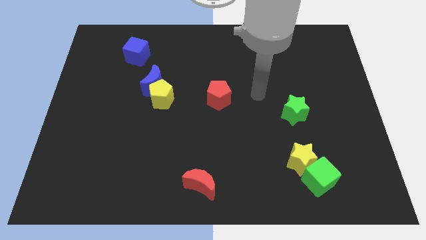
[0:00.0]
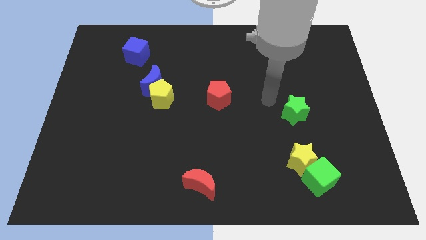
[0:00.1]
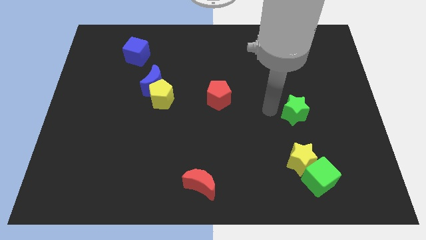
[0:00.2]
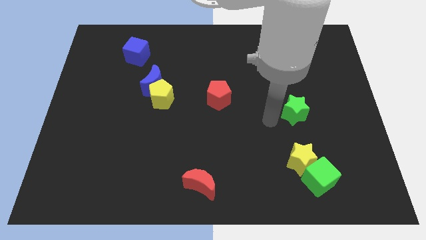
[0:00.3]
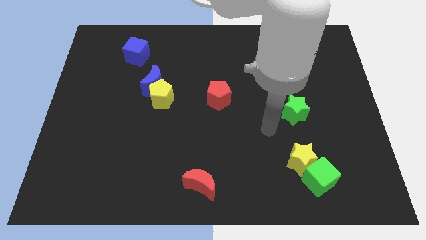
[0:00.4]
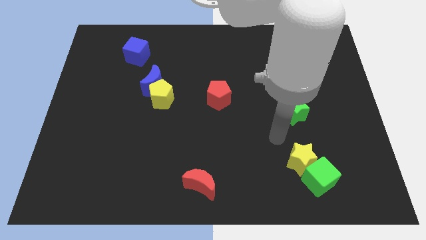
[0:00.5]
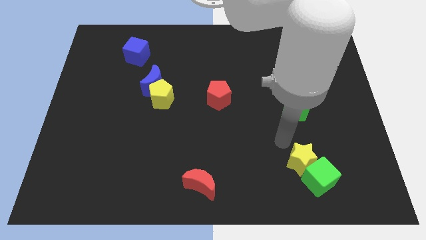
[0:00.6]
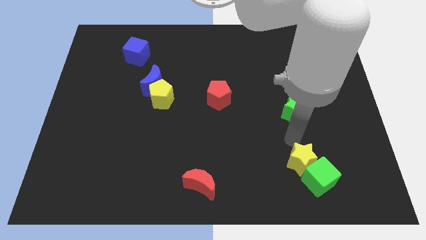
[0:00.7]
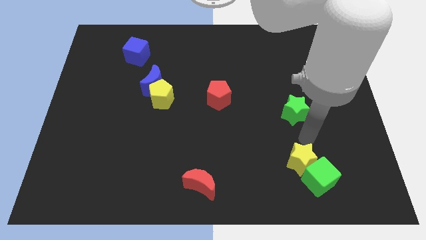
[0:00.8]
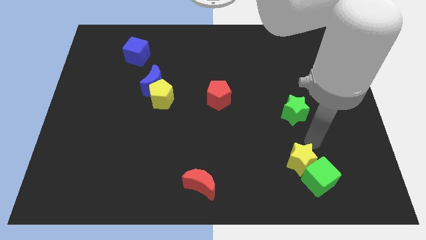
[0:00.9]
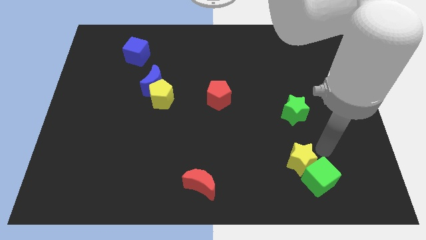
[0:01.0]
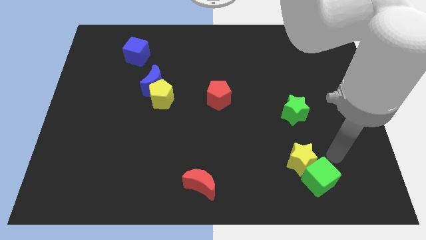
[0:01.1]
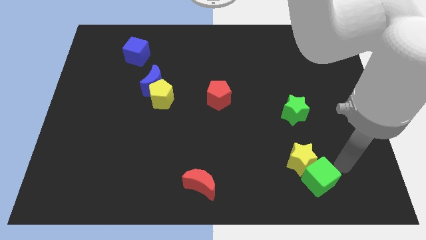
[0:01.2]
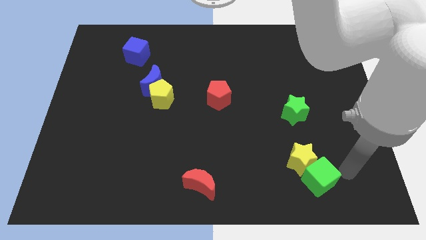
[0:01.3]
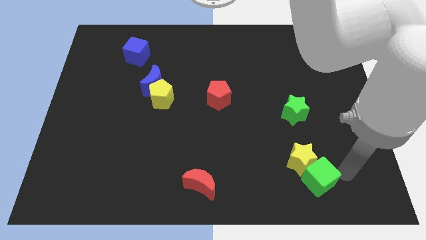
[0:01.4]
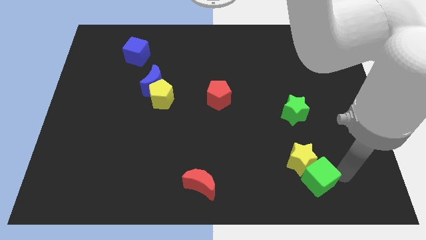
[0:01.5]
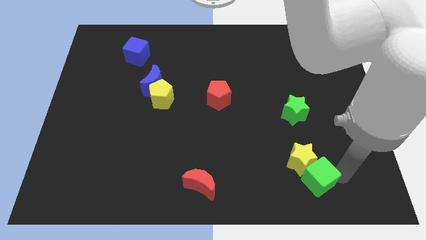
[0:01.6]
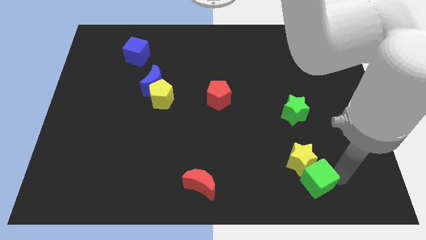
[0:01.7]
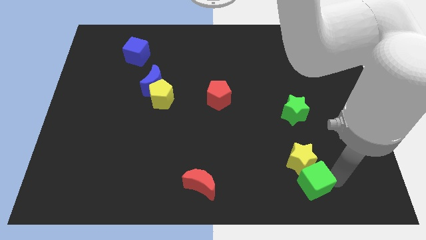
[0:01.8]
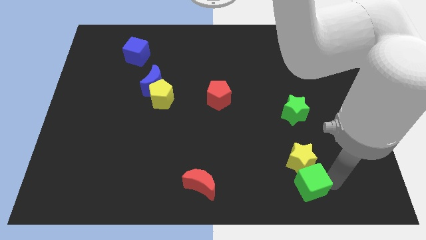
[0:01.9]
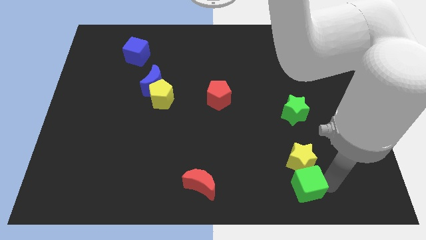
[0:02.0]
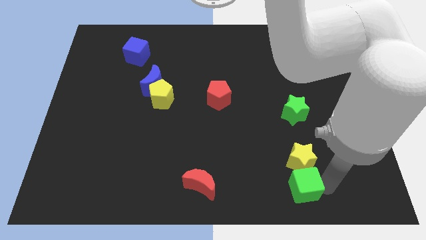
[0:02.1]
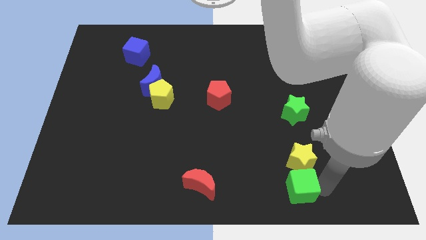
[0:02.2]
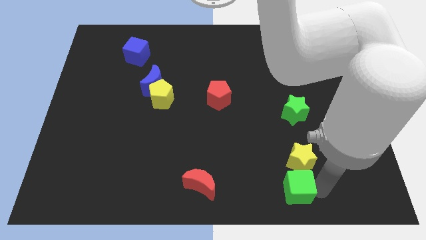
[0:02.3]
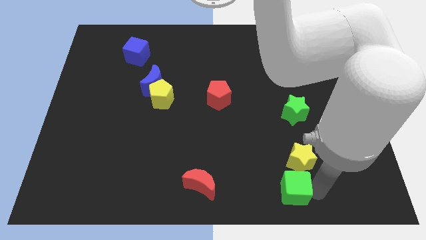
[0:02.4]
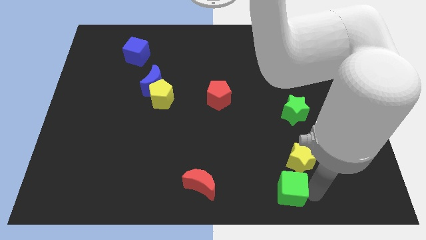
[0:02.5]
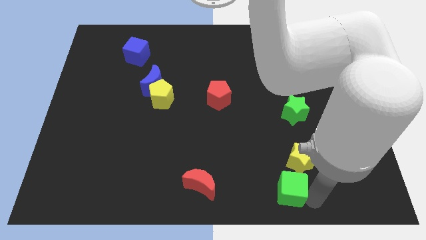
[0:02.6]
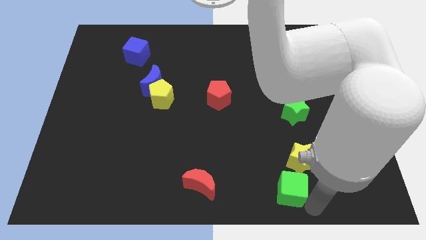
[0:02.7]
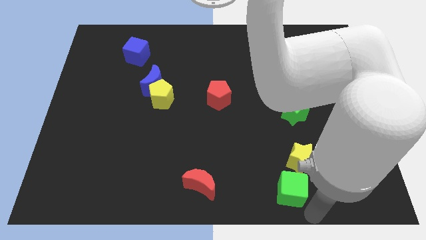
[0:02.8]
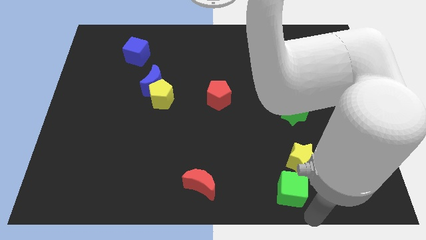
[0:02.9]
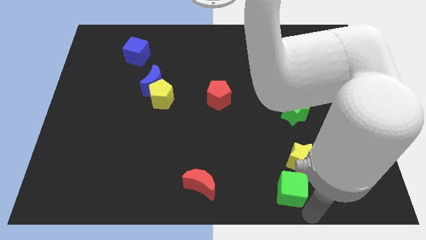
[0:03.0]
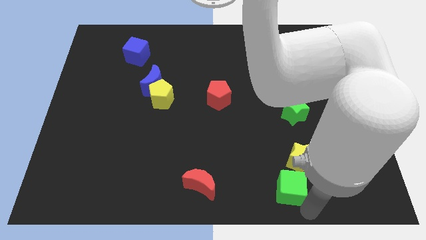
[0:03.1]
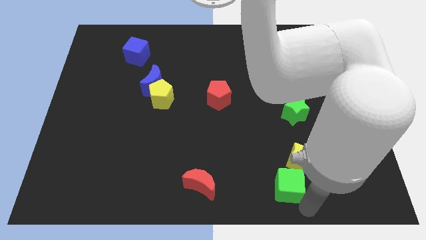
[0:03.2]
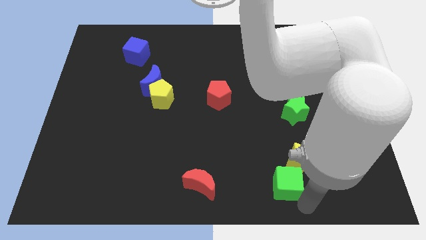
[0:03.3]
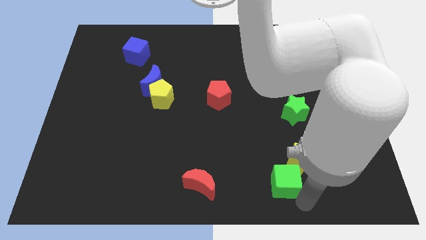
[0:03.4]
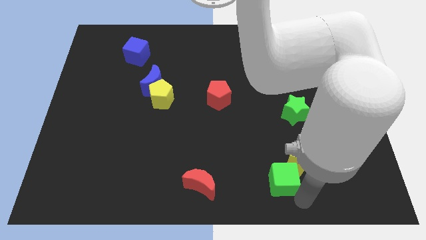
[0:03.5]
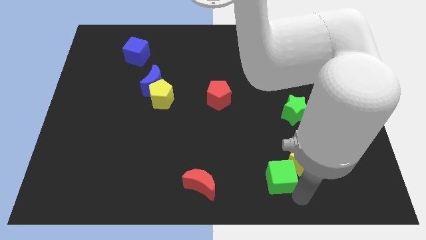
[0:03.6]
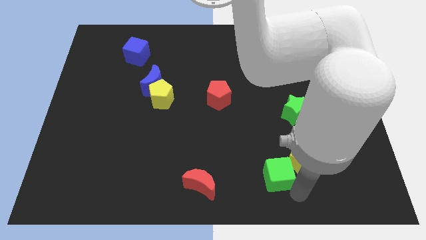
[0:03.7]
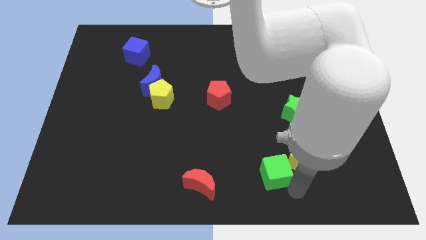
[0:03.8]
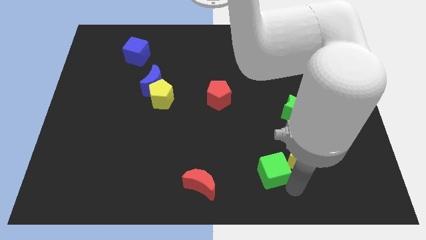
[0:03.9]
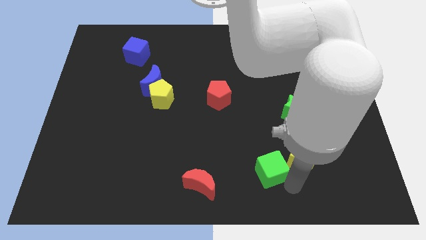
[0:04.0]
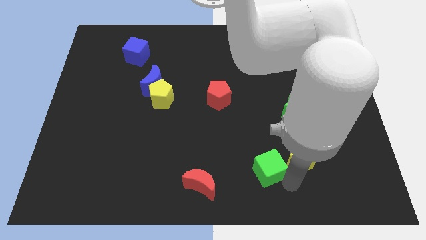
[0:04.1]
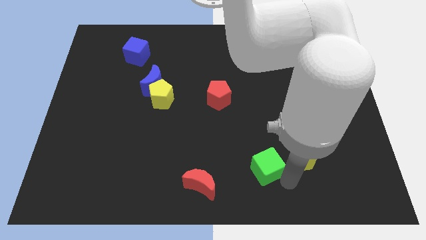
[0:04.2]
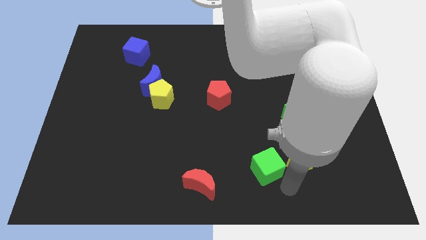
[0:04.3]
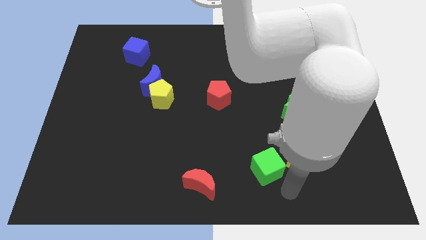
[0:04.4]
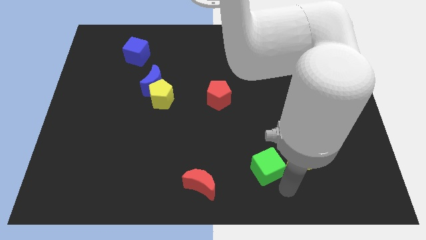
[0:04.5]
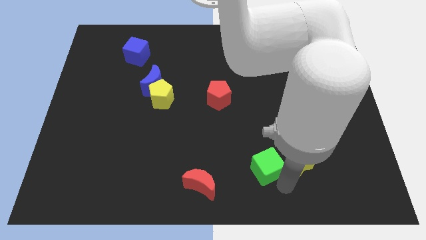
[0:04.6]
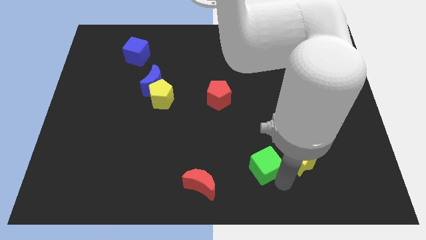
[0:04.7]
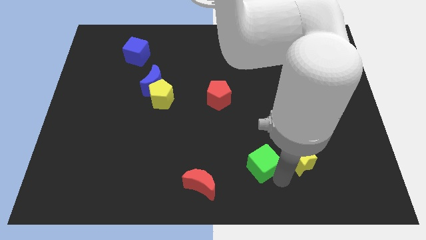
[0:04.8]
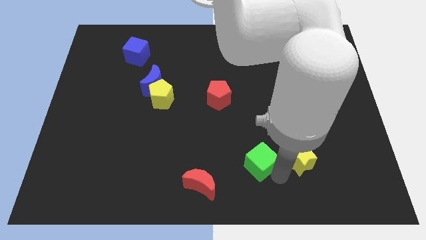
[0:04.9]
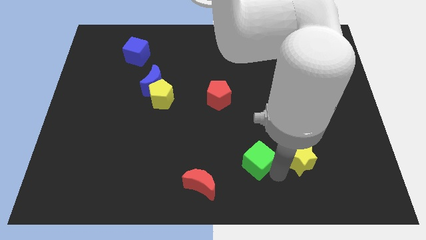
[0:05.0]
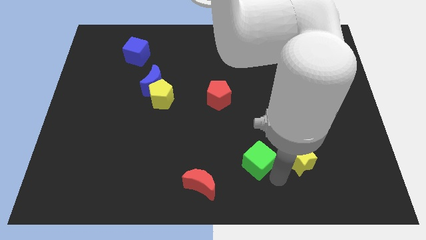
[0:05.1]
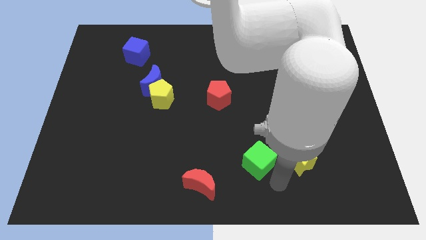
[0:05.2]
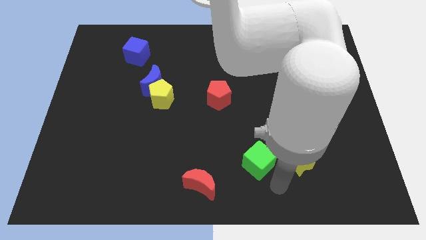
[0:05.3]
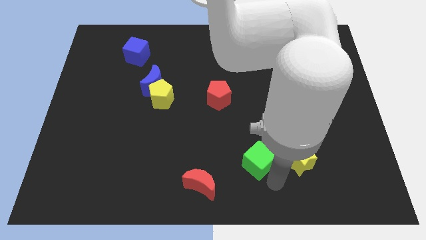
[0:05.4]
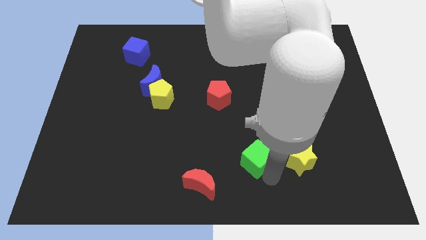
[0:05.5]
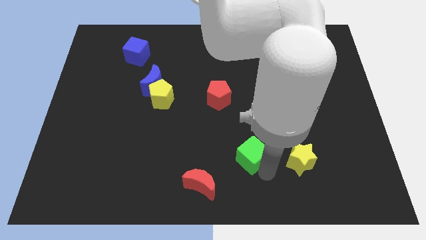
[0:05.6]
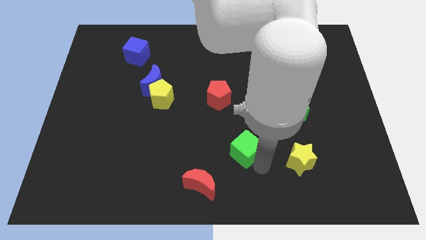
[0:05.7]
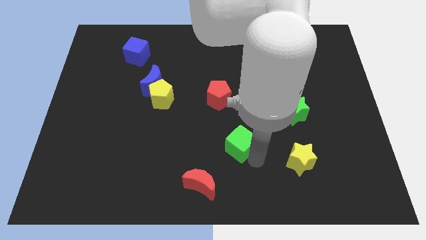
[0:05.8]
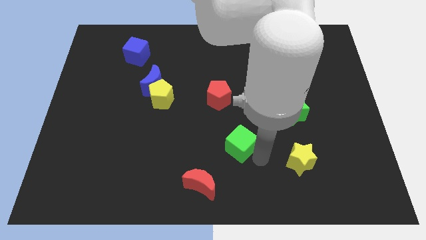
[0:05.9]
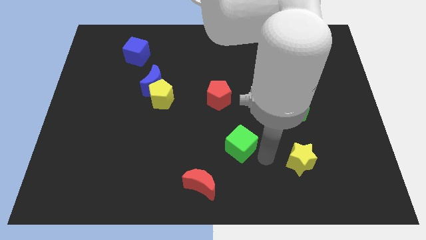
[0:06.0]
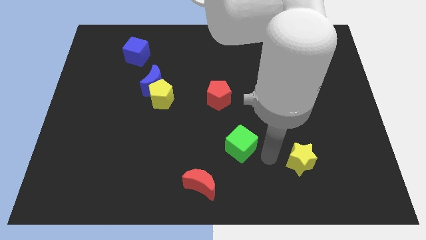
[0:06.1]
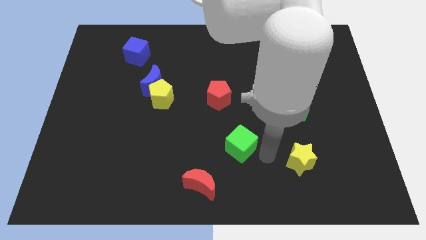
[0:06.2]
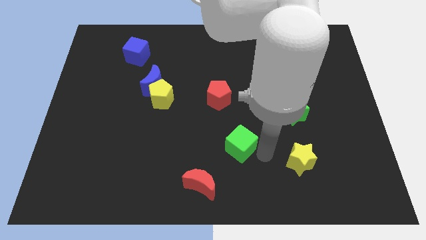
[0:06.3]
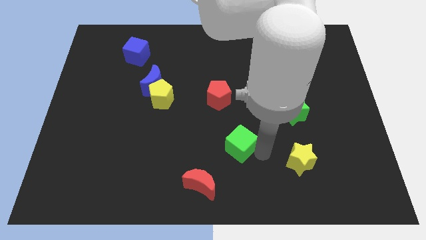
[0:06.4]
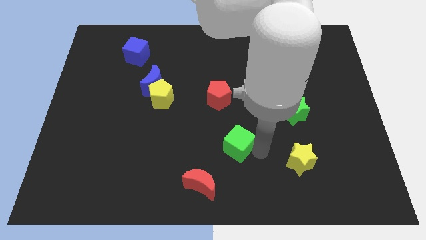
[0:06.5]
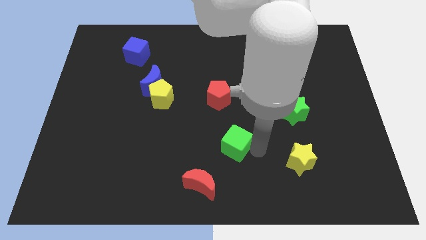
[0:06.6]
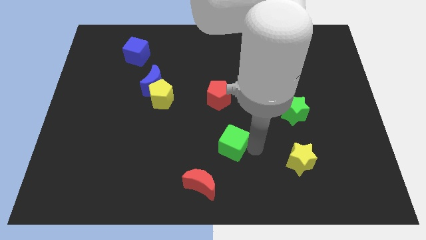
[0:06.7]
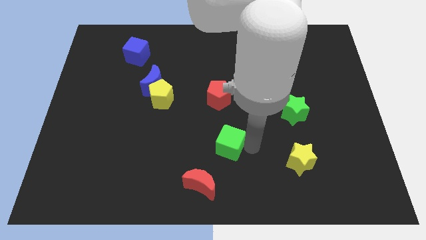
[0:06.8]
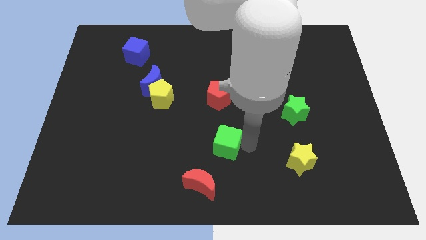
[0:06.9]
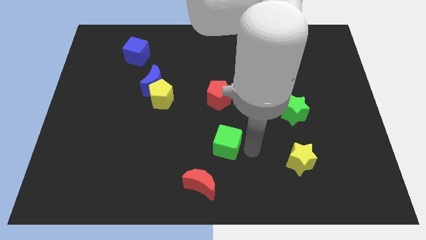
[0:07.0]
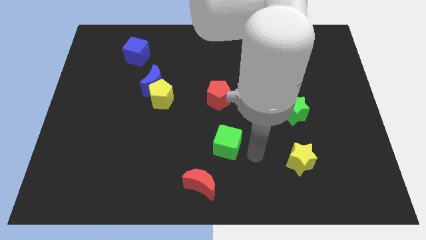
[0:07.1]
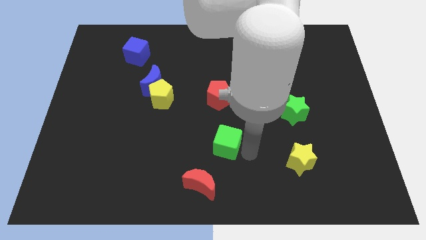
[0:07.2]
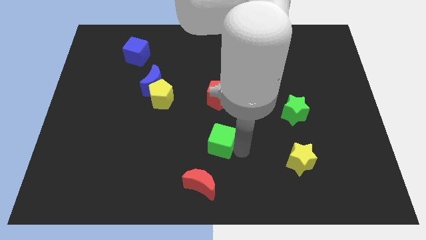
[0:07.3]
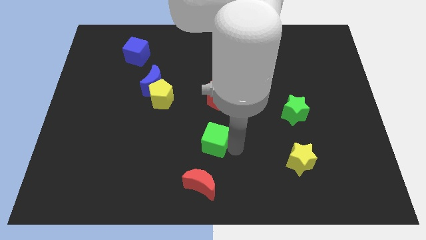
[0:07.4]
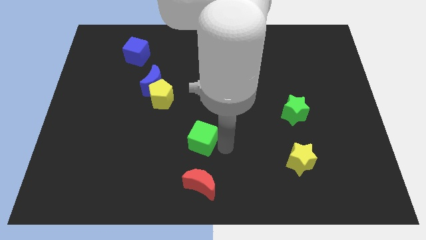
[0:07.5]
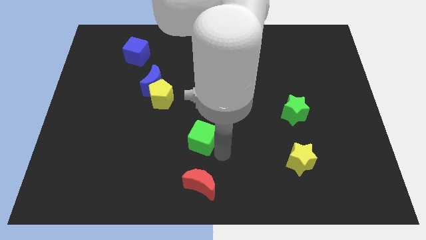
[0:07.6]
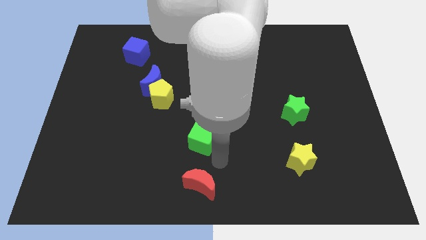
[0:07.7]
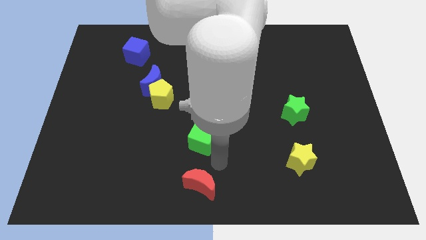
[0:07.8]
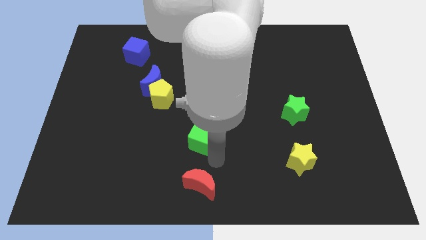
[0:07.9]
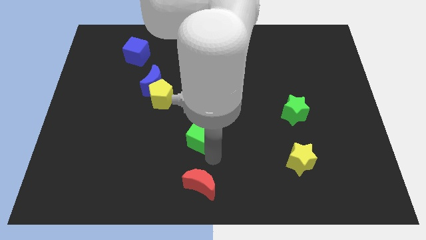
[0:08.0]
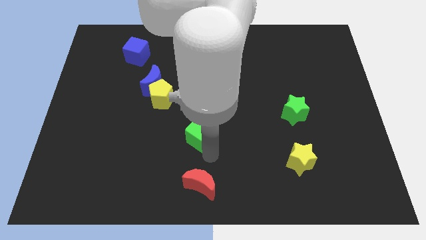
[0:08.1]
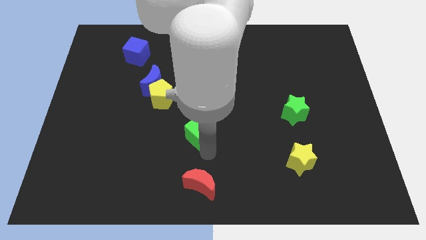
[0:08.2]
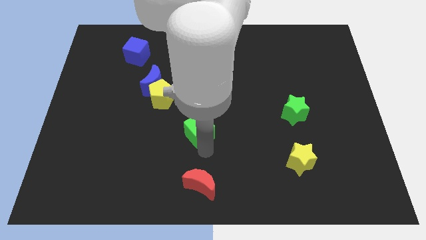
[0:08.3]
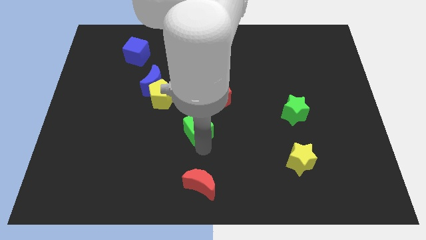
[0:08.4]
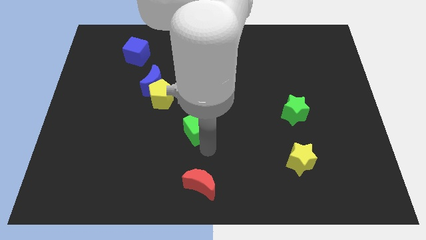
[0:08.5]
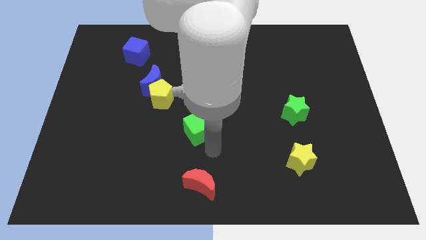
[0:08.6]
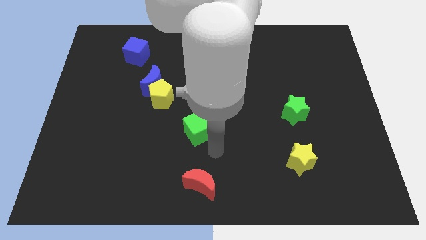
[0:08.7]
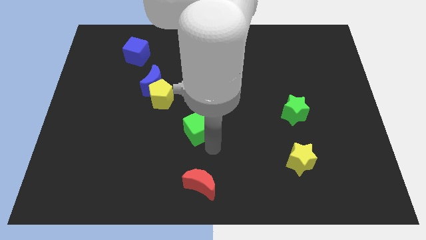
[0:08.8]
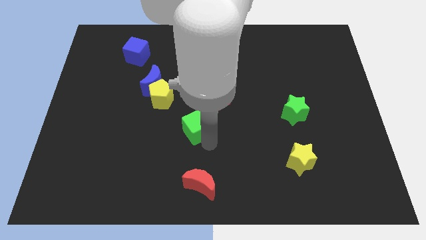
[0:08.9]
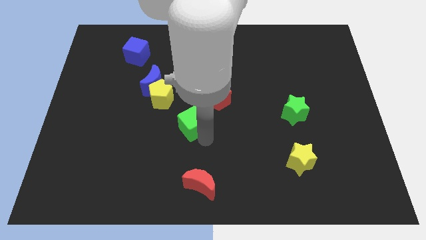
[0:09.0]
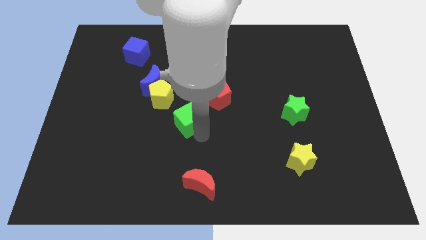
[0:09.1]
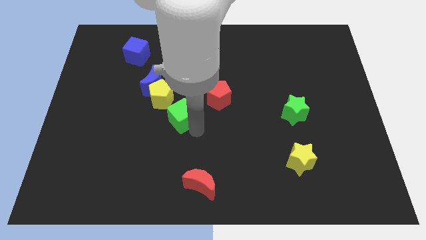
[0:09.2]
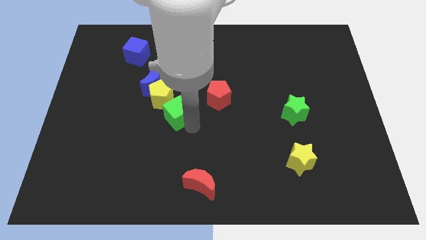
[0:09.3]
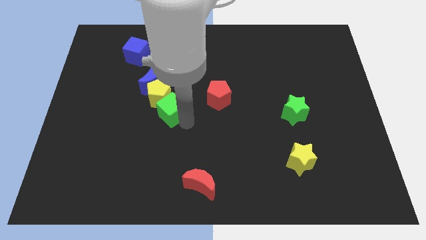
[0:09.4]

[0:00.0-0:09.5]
put the green cube to the yellow pentagon
